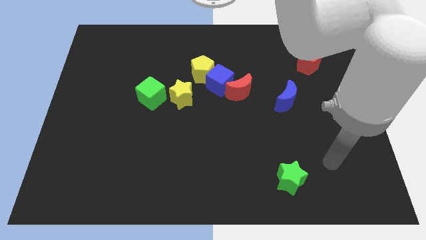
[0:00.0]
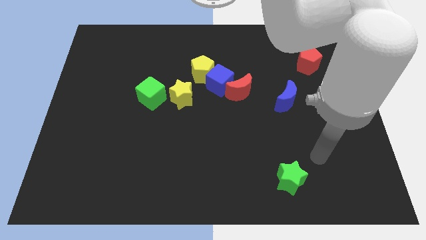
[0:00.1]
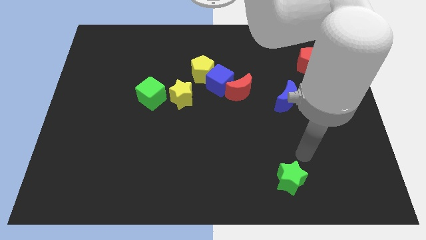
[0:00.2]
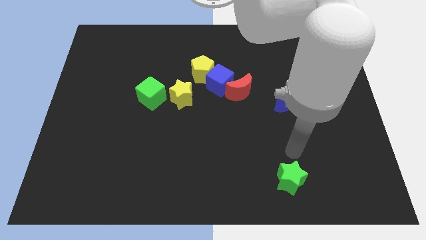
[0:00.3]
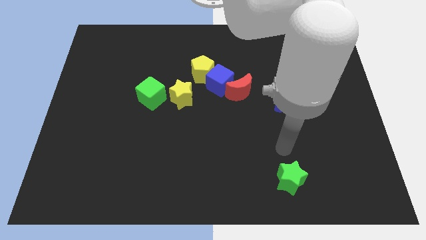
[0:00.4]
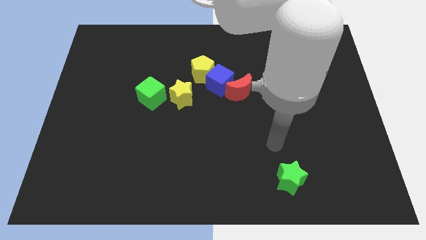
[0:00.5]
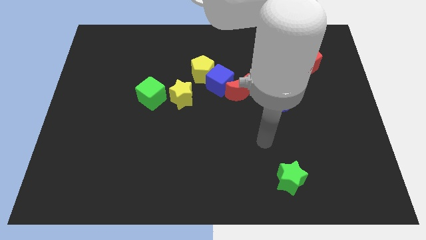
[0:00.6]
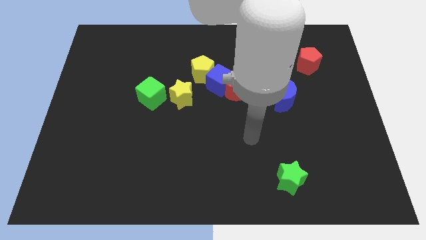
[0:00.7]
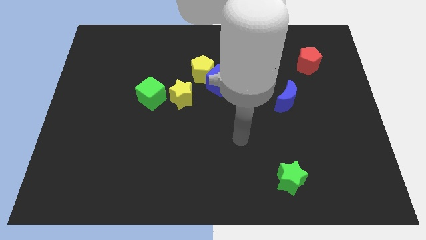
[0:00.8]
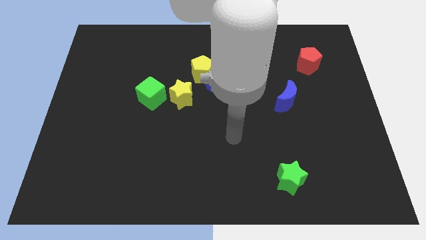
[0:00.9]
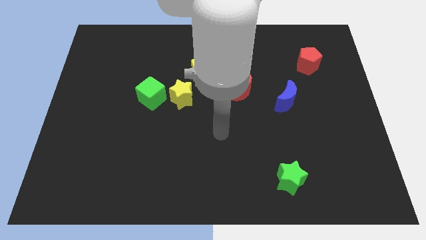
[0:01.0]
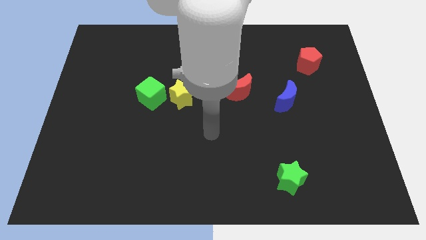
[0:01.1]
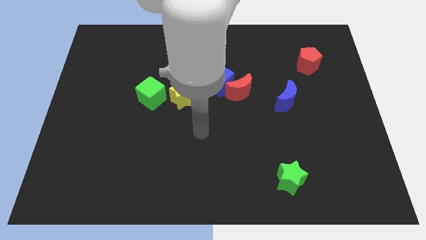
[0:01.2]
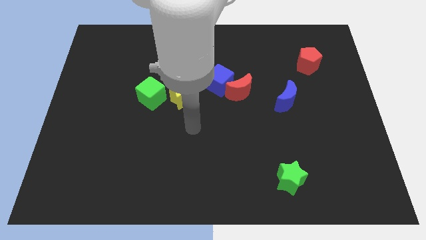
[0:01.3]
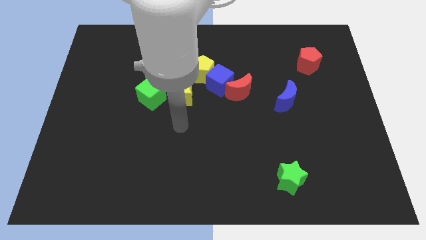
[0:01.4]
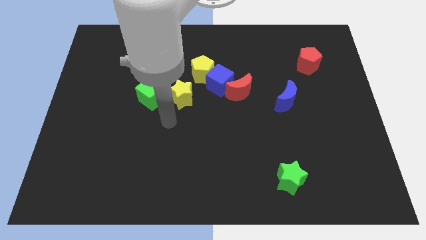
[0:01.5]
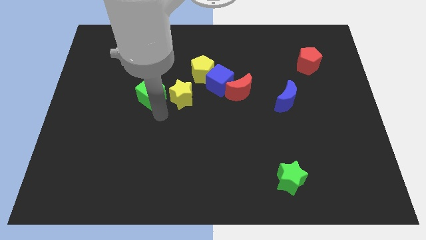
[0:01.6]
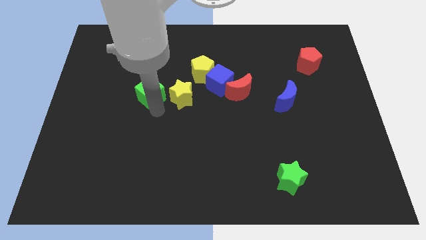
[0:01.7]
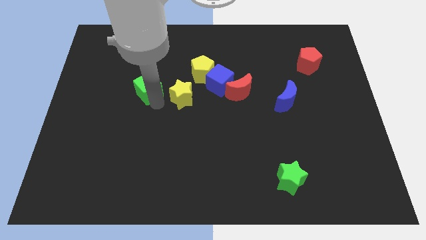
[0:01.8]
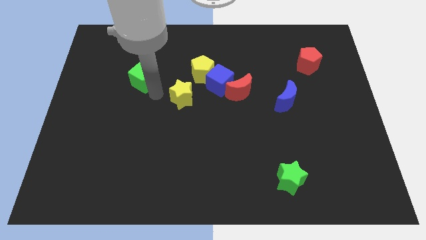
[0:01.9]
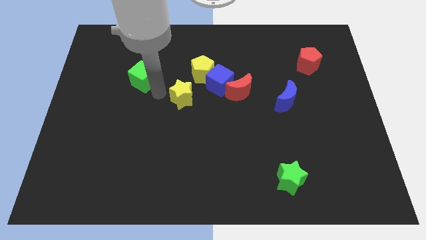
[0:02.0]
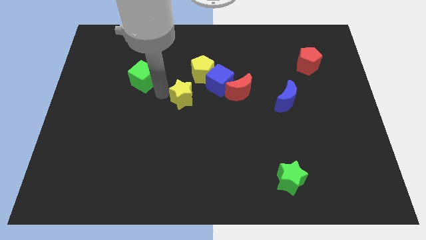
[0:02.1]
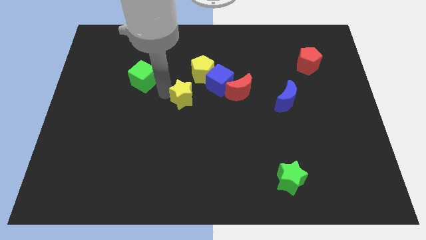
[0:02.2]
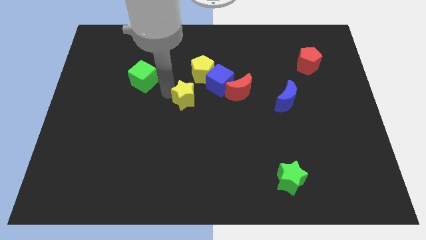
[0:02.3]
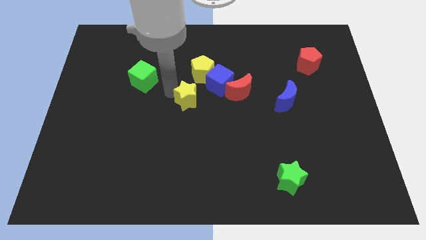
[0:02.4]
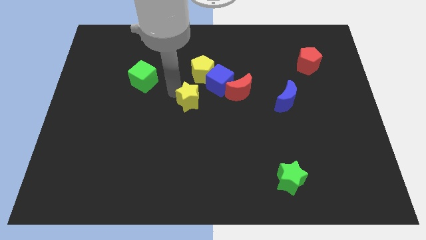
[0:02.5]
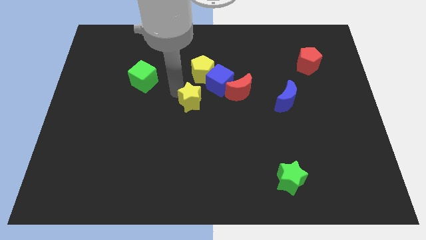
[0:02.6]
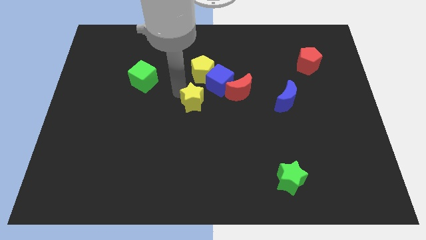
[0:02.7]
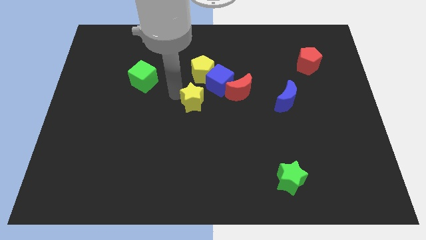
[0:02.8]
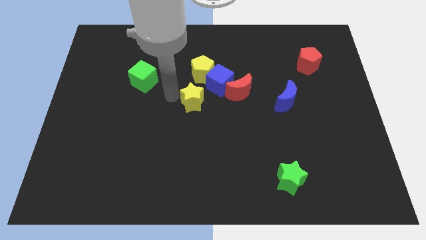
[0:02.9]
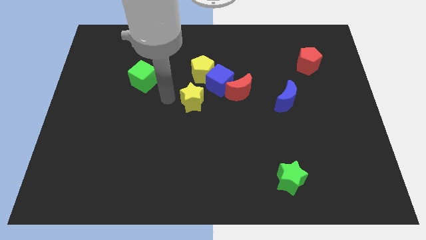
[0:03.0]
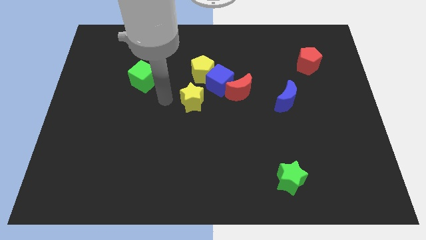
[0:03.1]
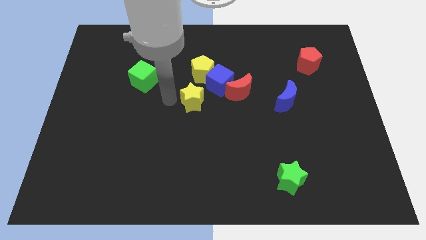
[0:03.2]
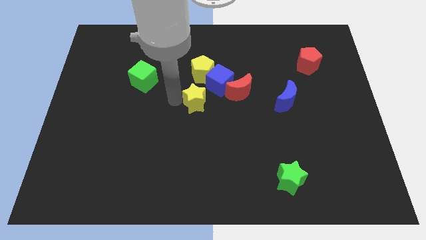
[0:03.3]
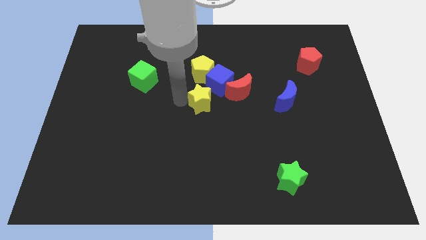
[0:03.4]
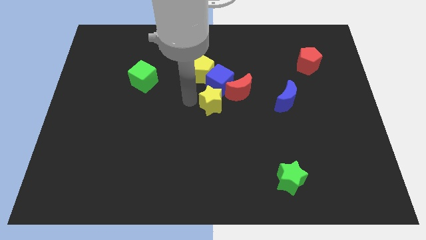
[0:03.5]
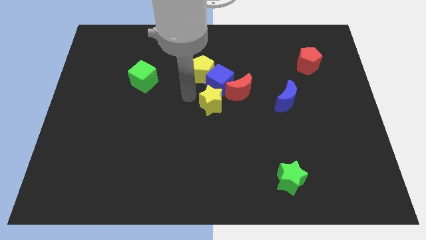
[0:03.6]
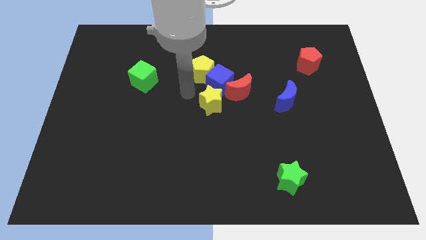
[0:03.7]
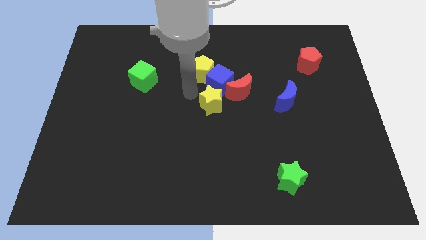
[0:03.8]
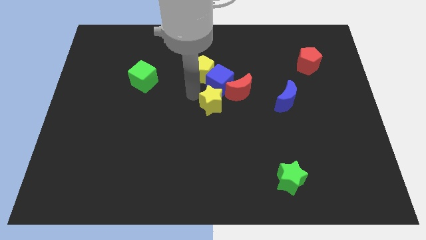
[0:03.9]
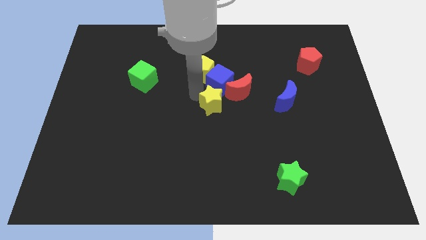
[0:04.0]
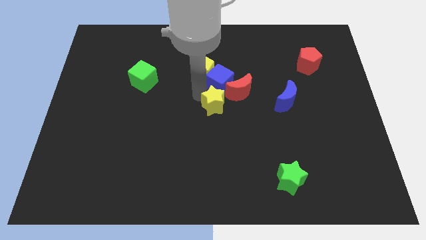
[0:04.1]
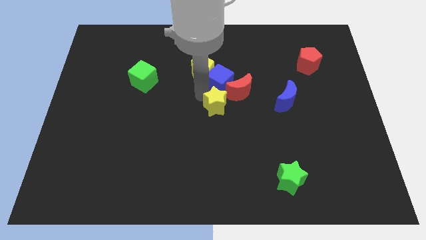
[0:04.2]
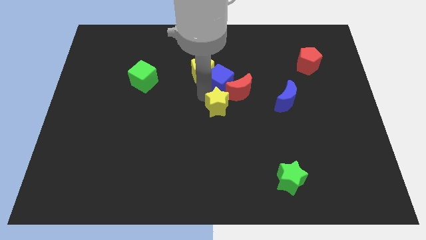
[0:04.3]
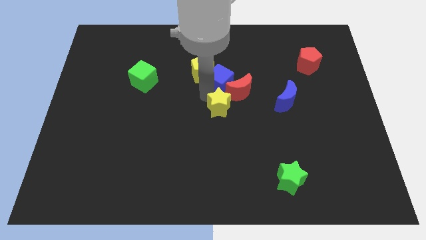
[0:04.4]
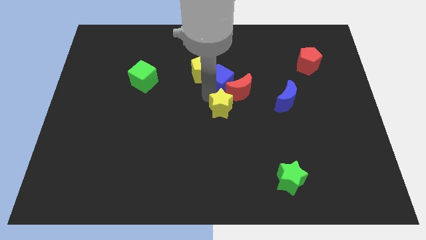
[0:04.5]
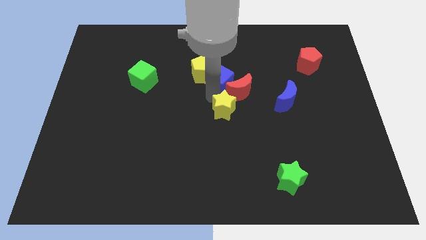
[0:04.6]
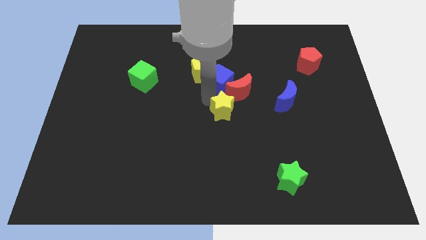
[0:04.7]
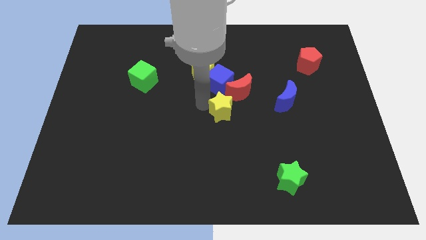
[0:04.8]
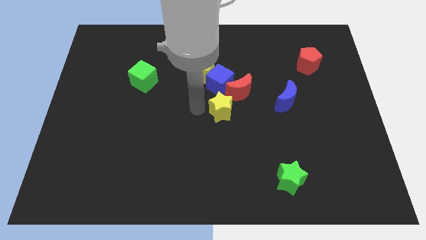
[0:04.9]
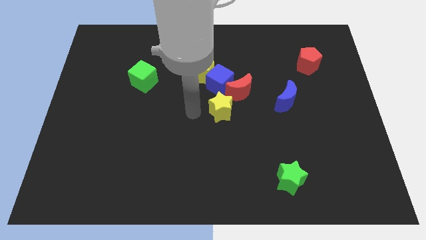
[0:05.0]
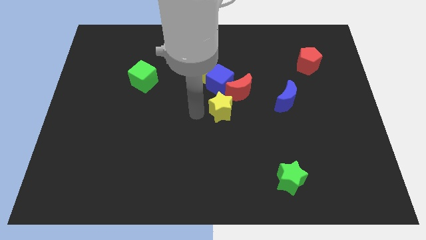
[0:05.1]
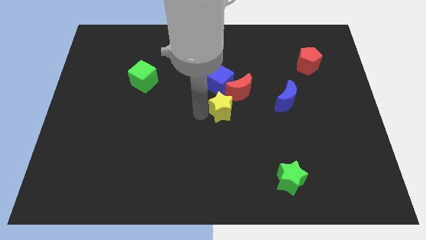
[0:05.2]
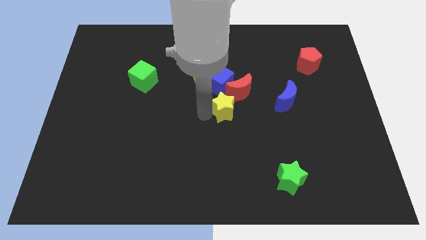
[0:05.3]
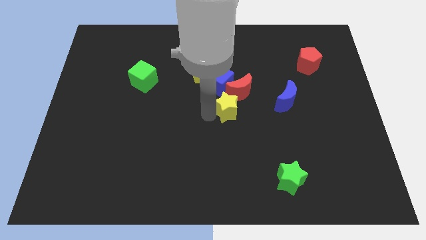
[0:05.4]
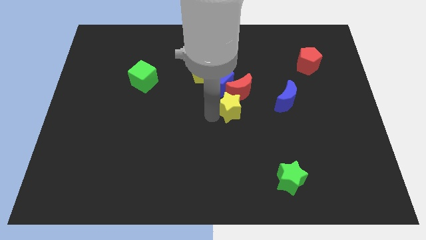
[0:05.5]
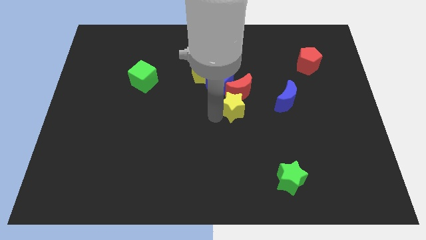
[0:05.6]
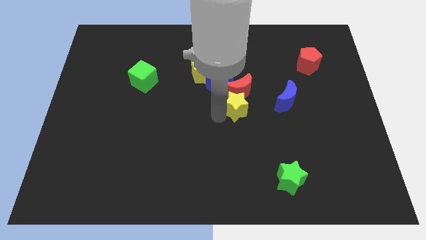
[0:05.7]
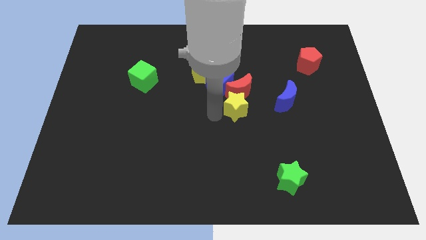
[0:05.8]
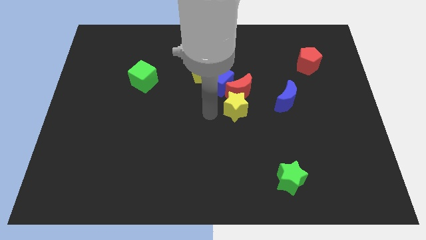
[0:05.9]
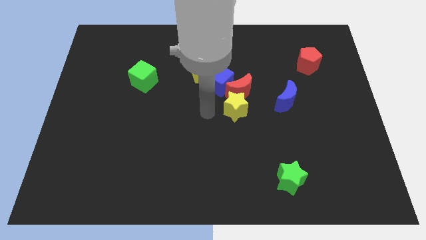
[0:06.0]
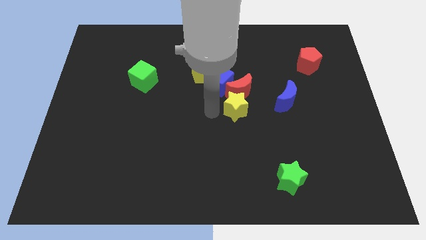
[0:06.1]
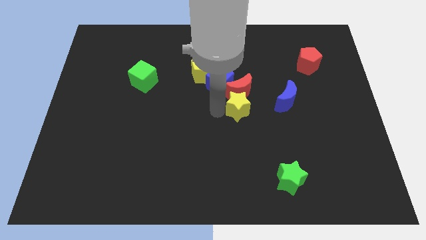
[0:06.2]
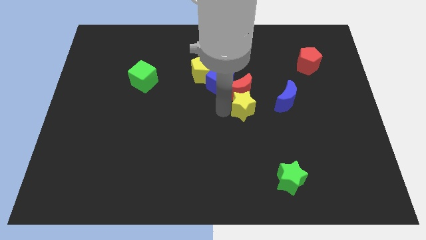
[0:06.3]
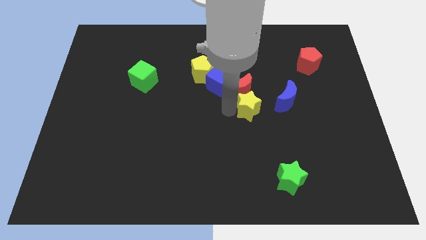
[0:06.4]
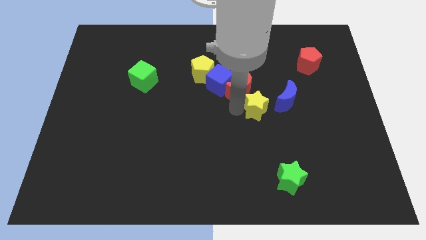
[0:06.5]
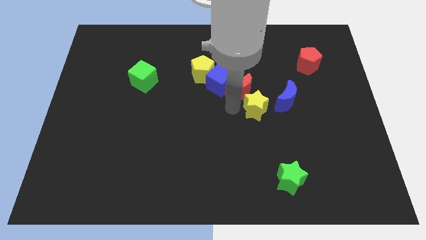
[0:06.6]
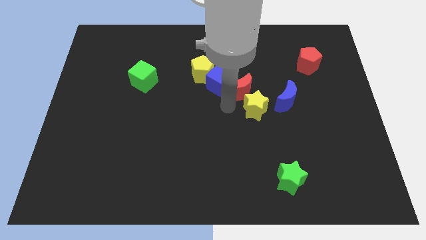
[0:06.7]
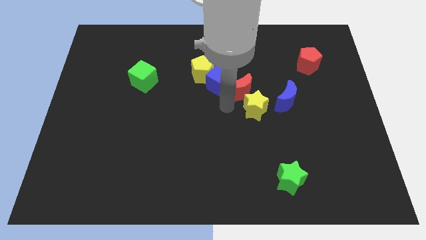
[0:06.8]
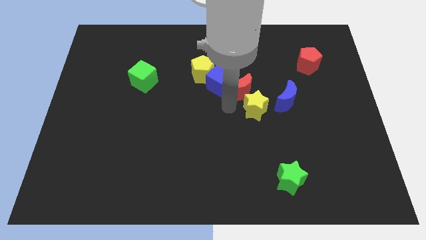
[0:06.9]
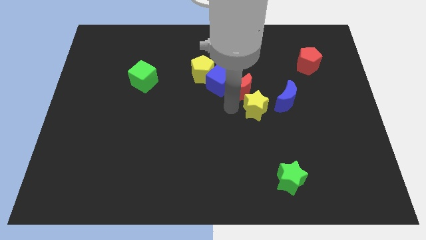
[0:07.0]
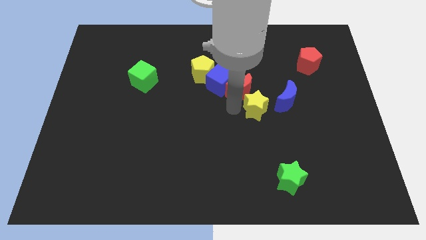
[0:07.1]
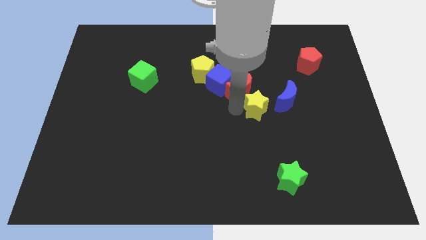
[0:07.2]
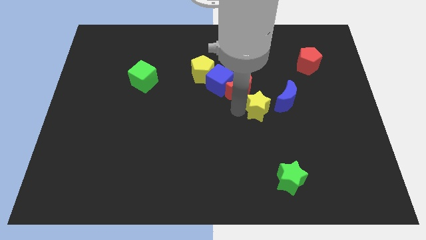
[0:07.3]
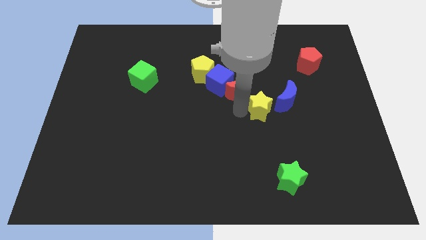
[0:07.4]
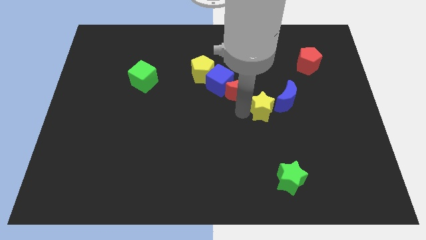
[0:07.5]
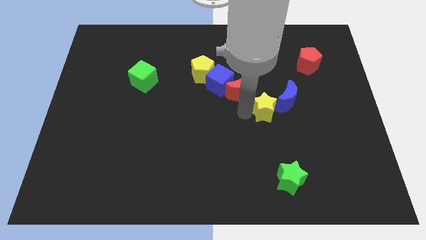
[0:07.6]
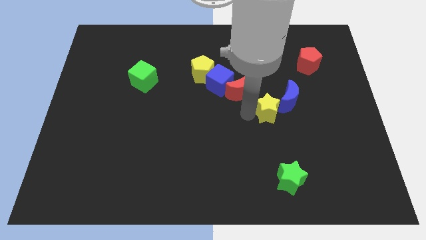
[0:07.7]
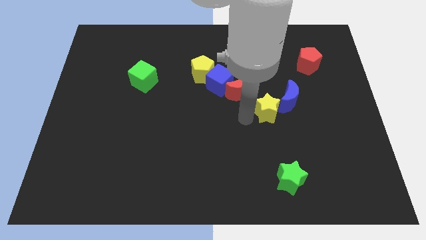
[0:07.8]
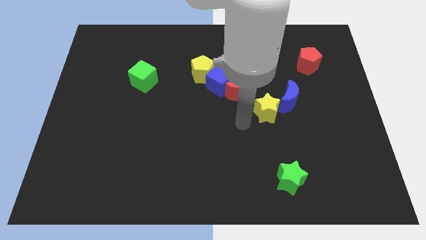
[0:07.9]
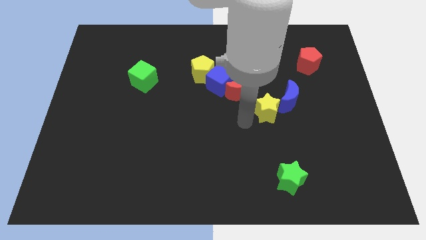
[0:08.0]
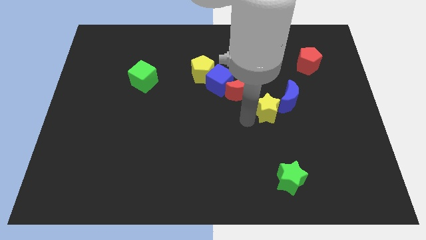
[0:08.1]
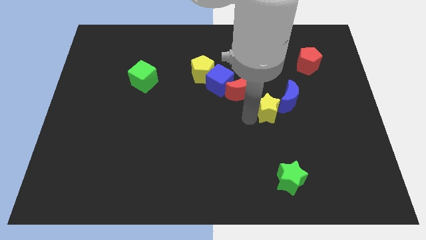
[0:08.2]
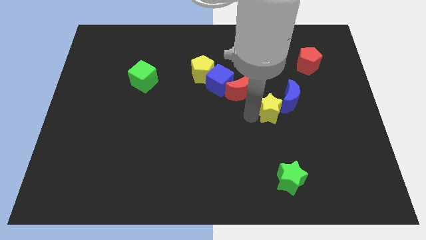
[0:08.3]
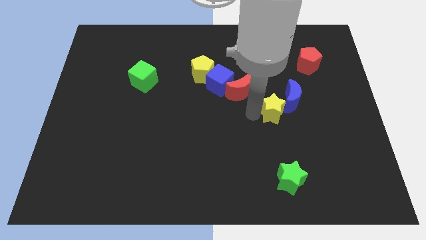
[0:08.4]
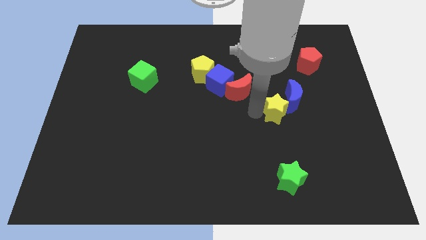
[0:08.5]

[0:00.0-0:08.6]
put the yellow star to the blue moon
